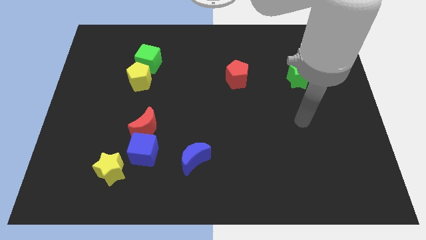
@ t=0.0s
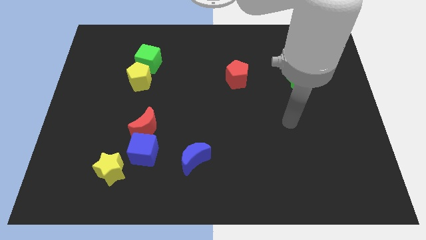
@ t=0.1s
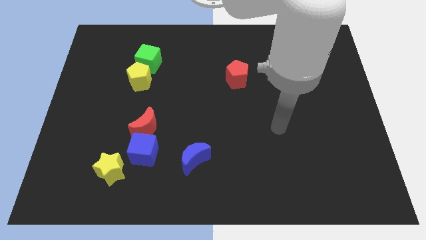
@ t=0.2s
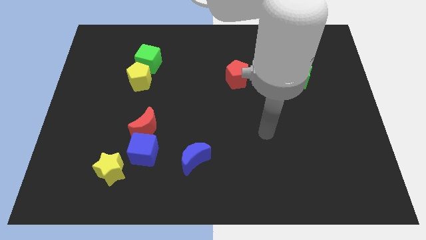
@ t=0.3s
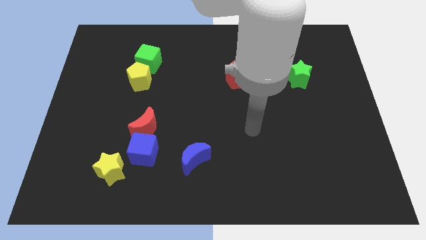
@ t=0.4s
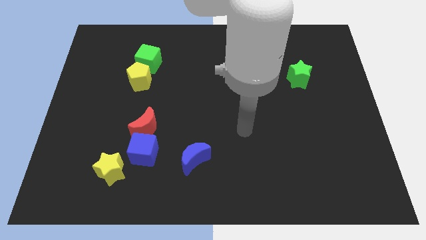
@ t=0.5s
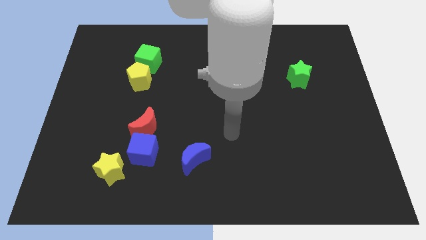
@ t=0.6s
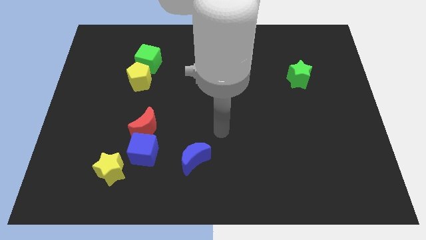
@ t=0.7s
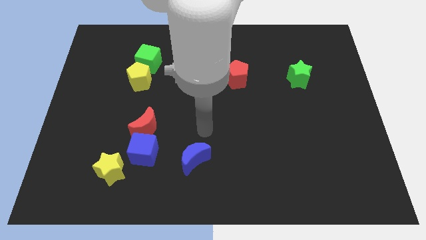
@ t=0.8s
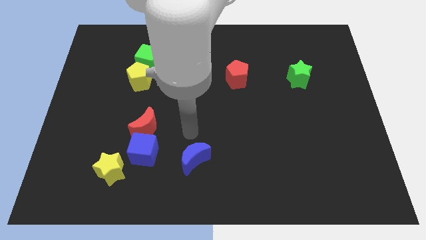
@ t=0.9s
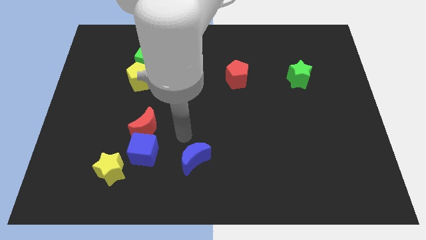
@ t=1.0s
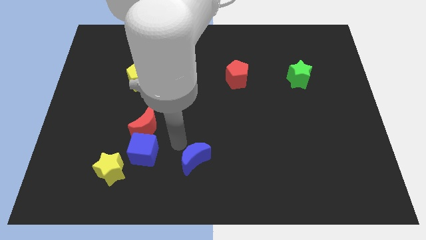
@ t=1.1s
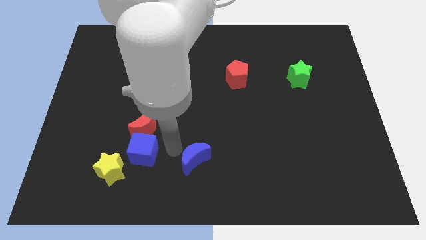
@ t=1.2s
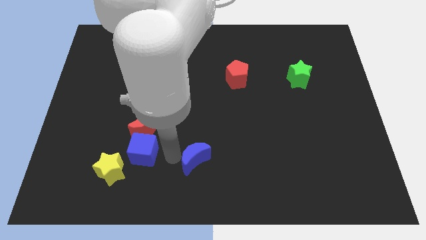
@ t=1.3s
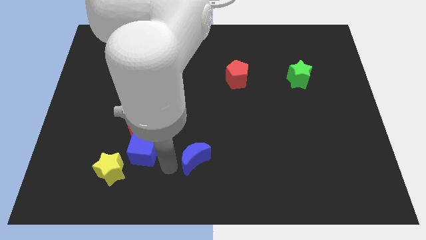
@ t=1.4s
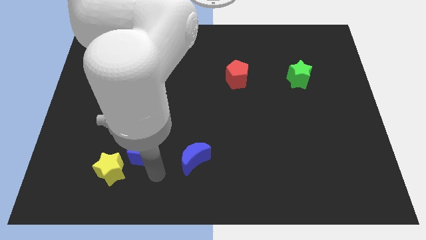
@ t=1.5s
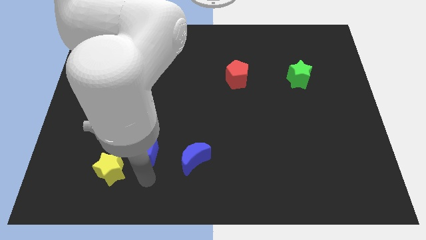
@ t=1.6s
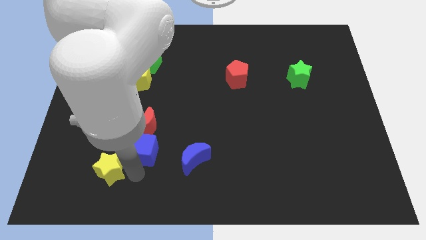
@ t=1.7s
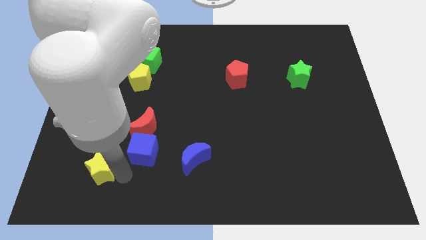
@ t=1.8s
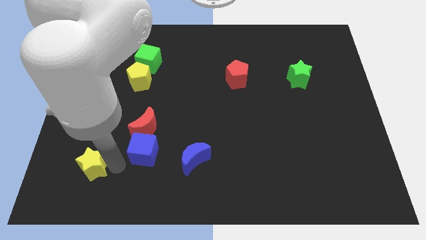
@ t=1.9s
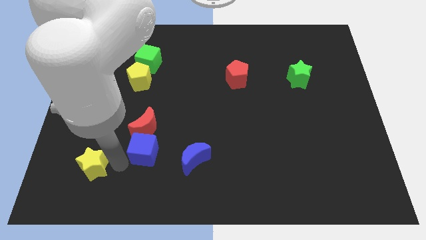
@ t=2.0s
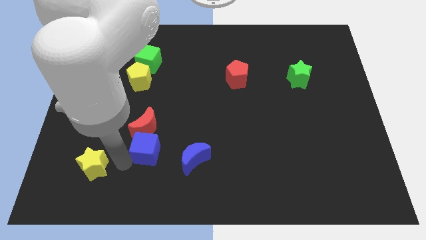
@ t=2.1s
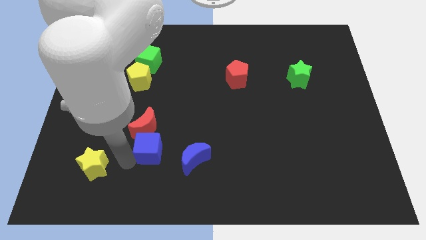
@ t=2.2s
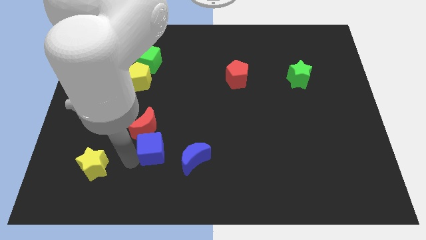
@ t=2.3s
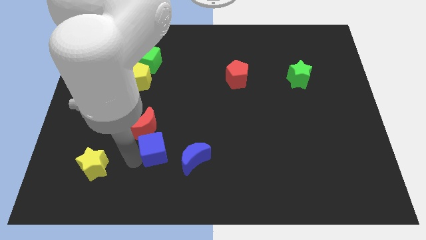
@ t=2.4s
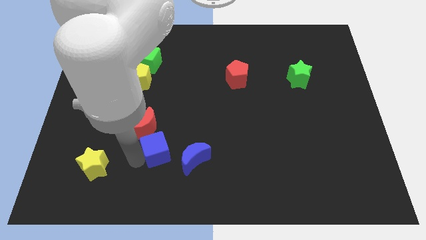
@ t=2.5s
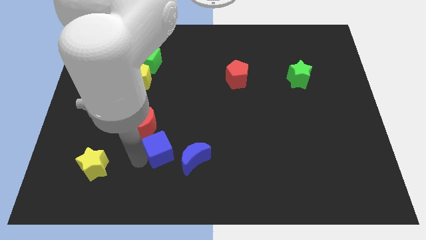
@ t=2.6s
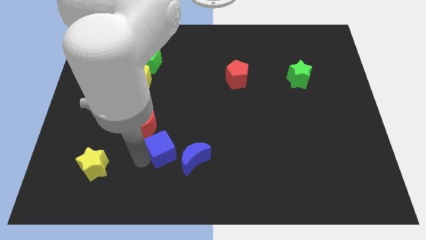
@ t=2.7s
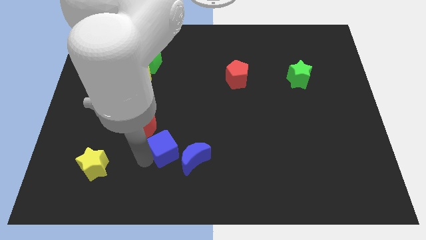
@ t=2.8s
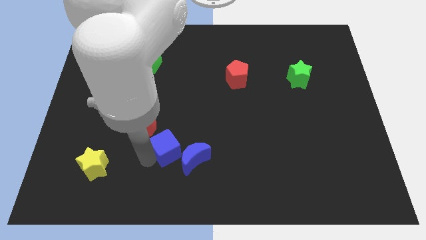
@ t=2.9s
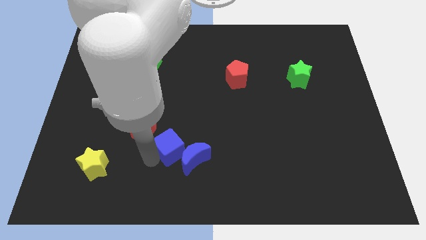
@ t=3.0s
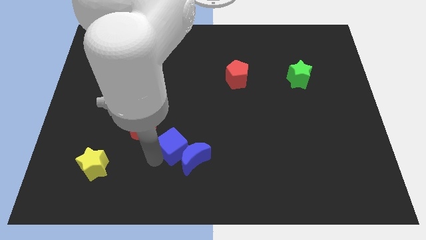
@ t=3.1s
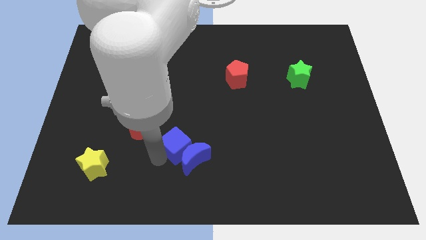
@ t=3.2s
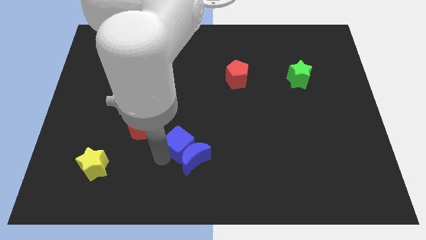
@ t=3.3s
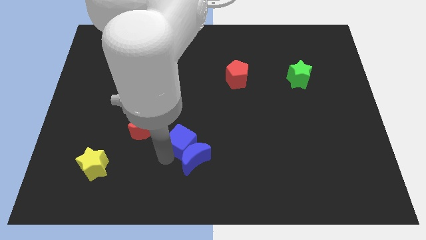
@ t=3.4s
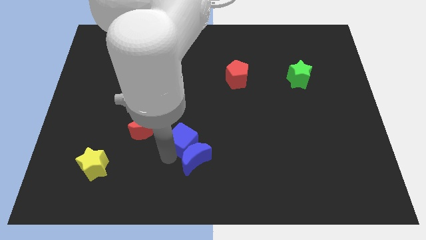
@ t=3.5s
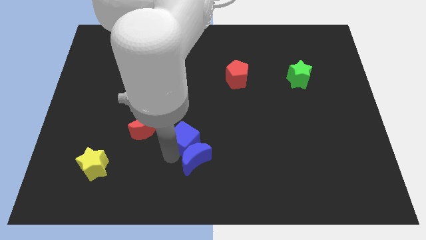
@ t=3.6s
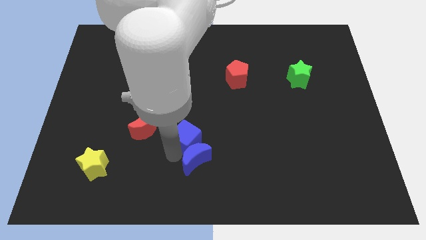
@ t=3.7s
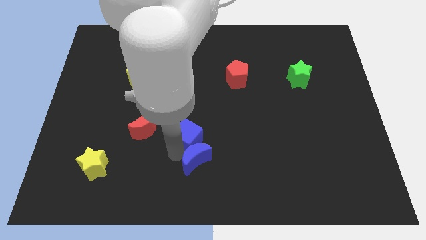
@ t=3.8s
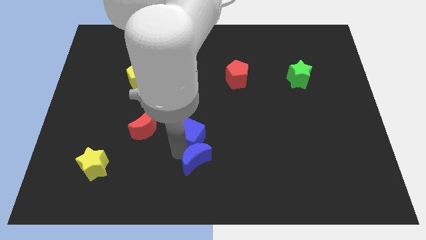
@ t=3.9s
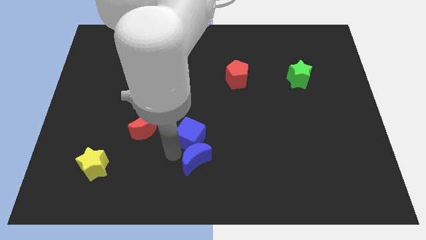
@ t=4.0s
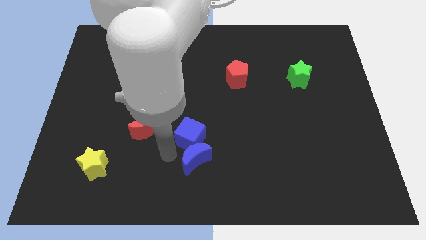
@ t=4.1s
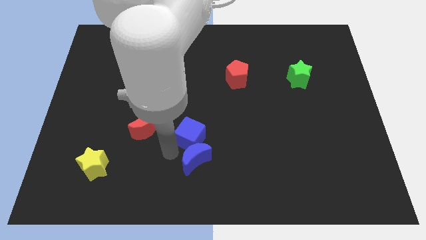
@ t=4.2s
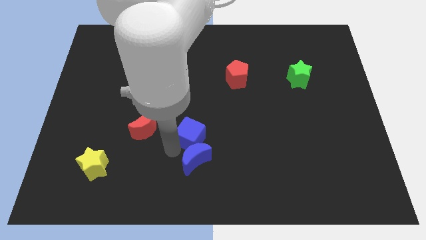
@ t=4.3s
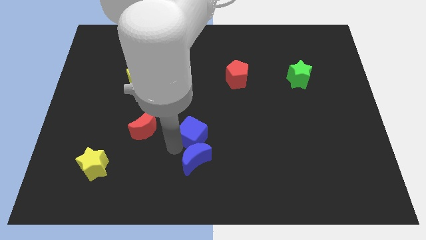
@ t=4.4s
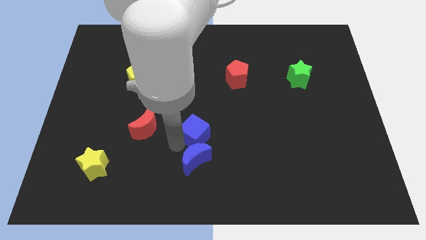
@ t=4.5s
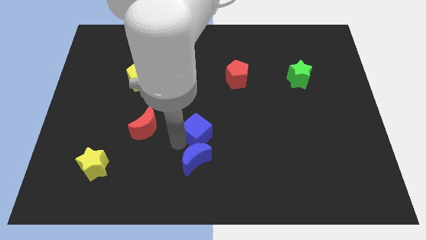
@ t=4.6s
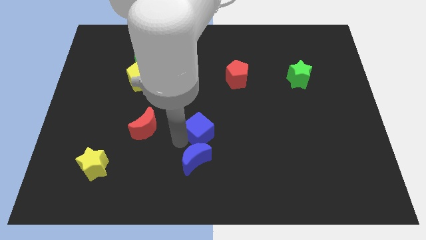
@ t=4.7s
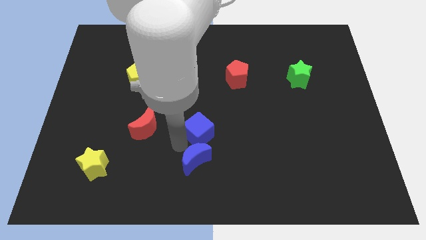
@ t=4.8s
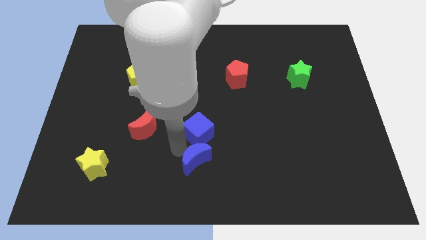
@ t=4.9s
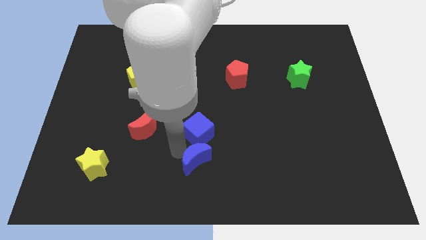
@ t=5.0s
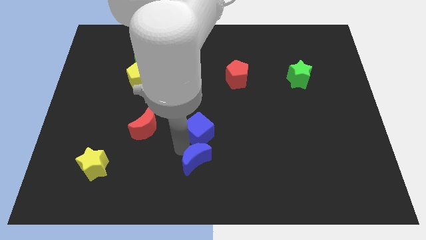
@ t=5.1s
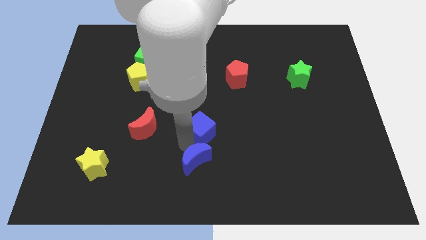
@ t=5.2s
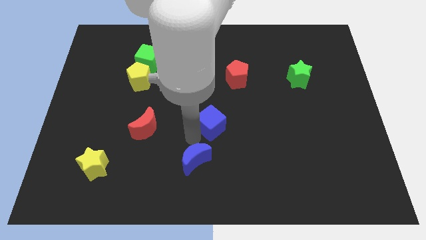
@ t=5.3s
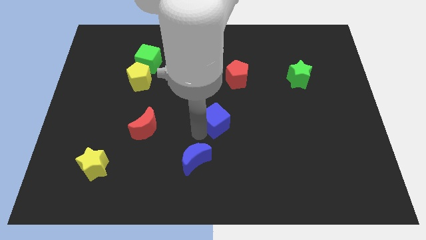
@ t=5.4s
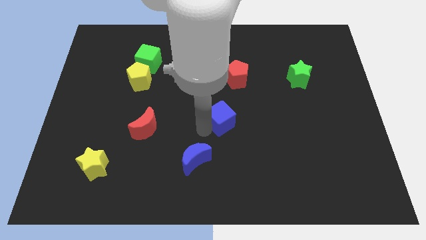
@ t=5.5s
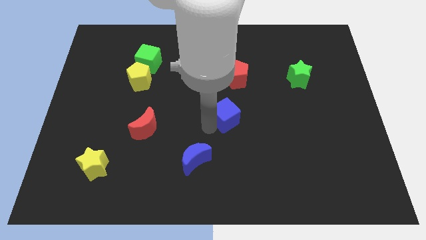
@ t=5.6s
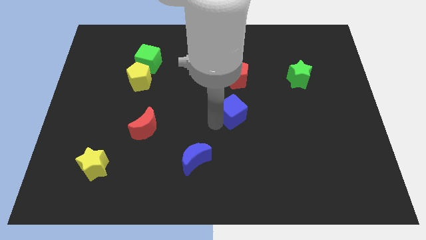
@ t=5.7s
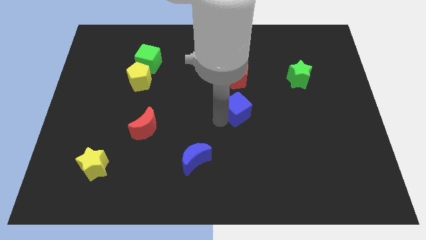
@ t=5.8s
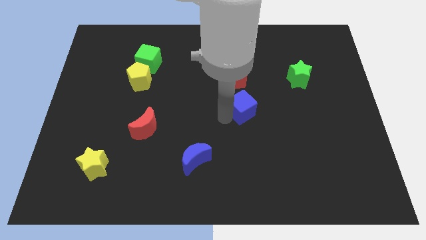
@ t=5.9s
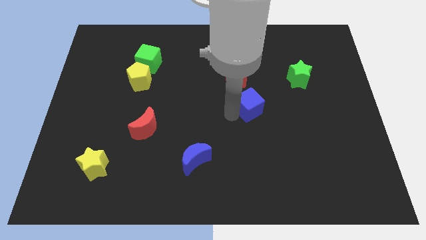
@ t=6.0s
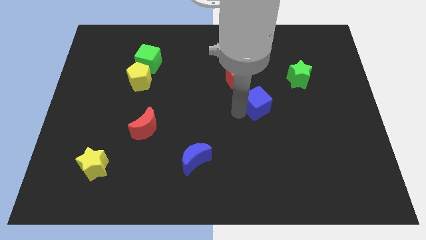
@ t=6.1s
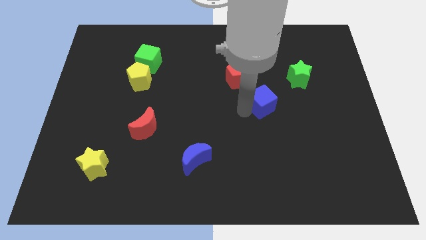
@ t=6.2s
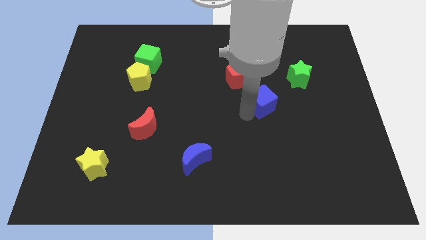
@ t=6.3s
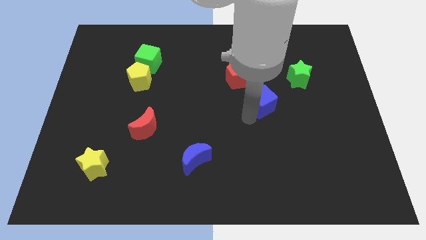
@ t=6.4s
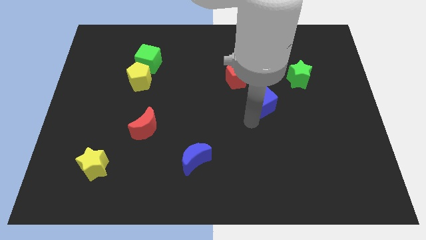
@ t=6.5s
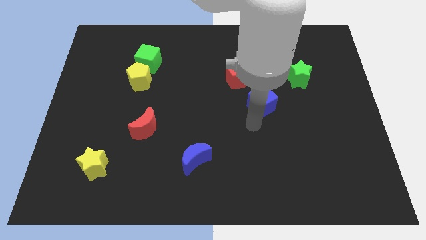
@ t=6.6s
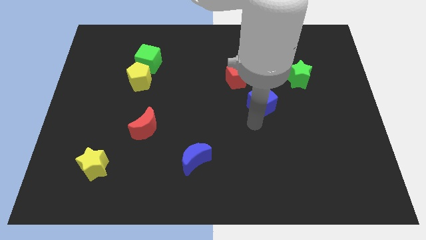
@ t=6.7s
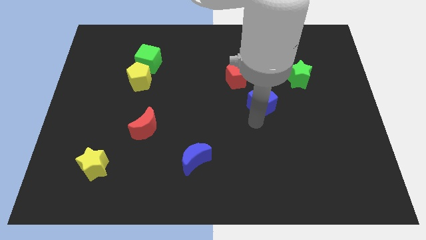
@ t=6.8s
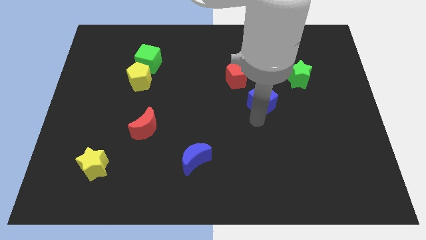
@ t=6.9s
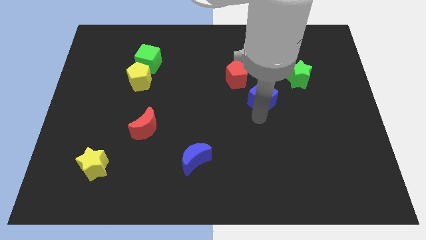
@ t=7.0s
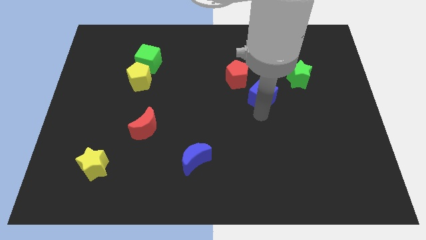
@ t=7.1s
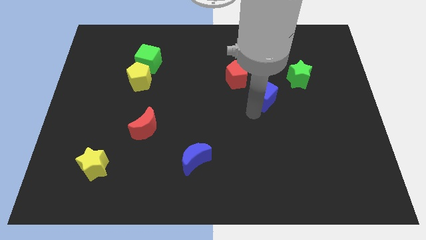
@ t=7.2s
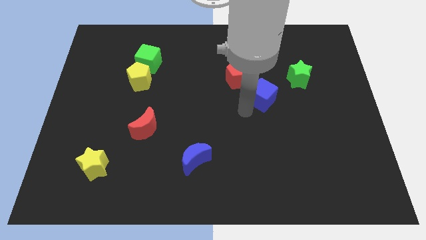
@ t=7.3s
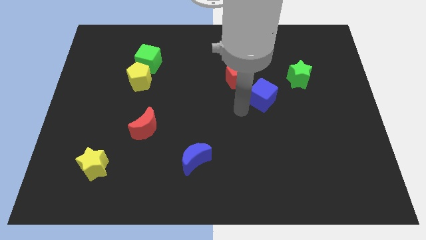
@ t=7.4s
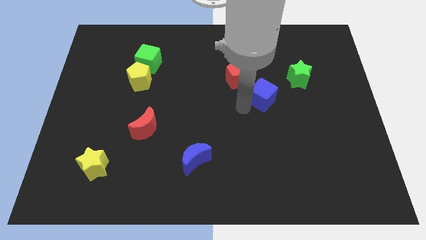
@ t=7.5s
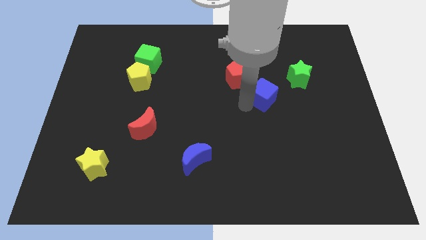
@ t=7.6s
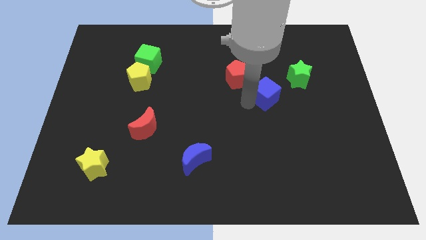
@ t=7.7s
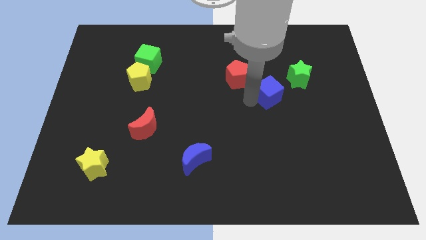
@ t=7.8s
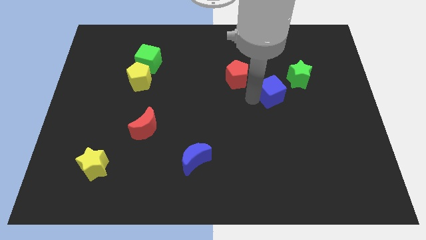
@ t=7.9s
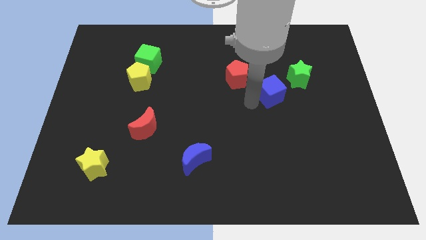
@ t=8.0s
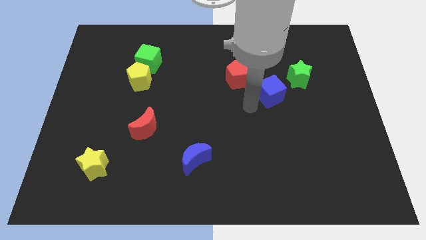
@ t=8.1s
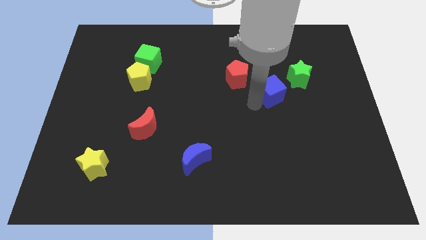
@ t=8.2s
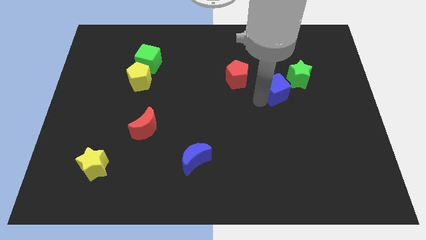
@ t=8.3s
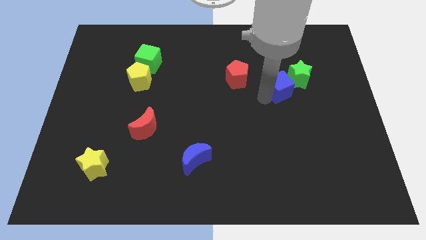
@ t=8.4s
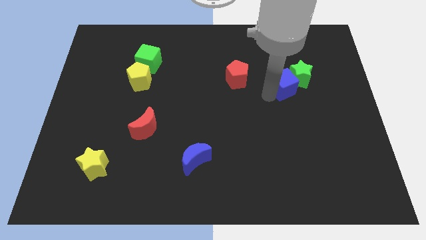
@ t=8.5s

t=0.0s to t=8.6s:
slide the blue cube next to the green star
